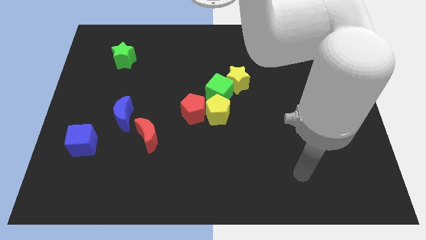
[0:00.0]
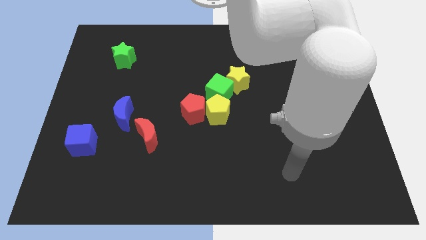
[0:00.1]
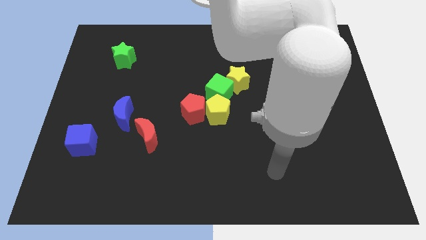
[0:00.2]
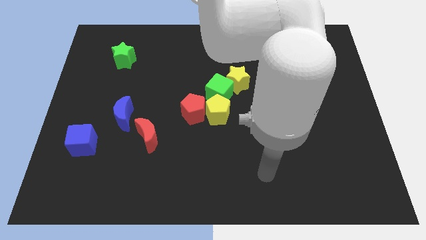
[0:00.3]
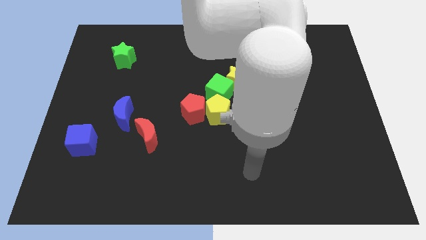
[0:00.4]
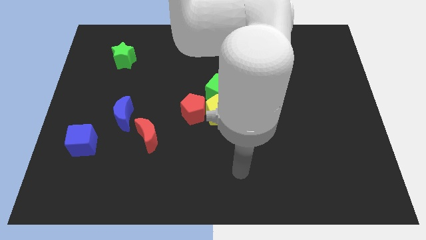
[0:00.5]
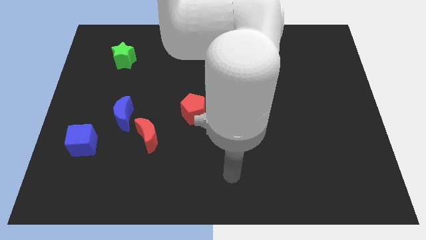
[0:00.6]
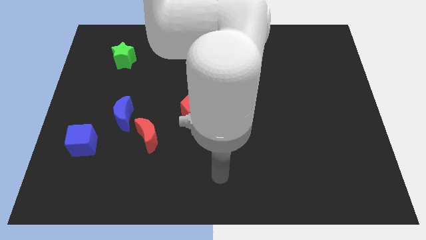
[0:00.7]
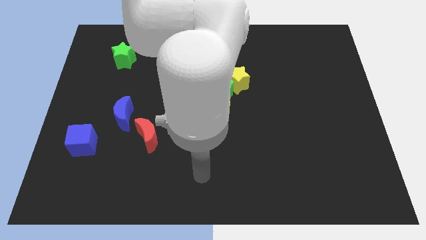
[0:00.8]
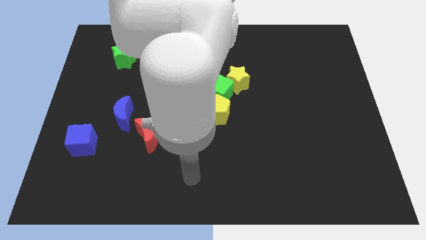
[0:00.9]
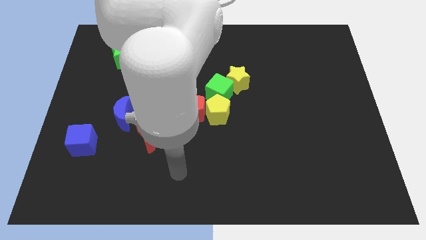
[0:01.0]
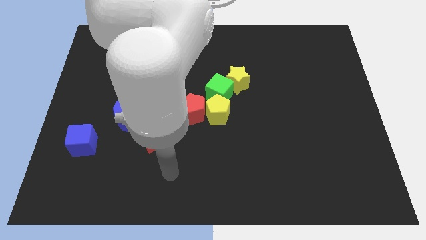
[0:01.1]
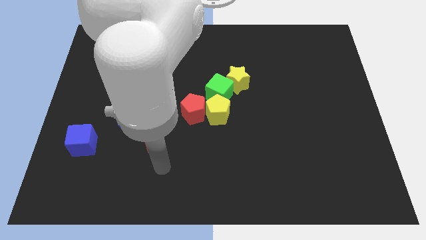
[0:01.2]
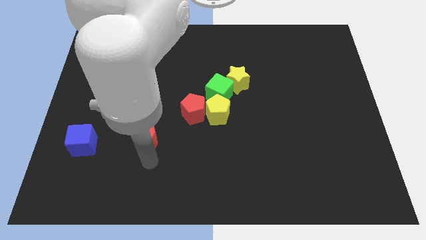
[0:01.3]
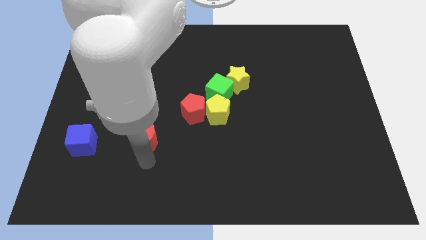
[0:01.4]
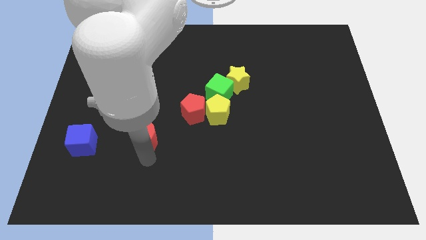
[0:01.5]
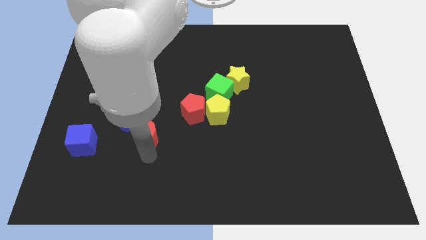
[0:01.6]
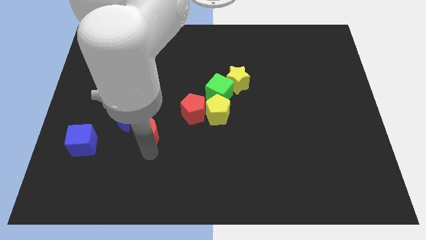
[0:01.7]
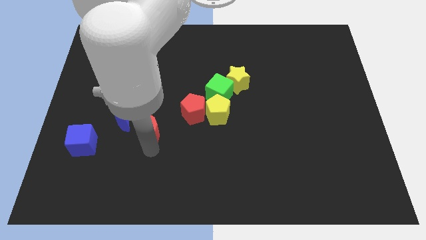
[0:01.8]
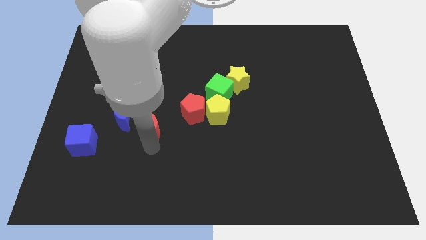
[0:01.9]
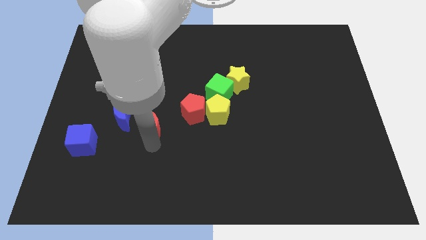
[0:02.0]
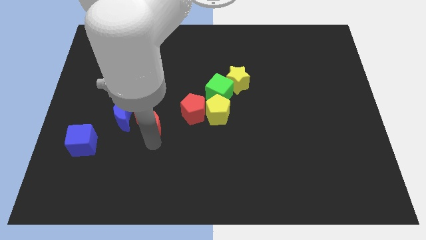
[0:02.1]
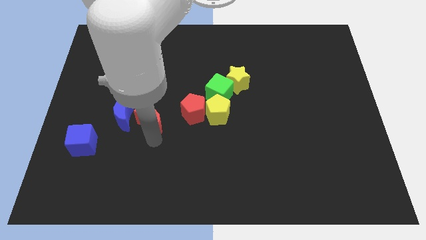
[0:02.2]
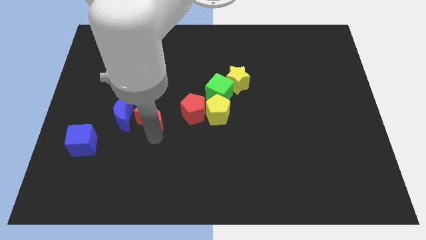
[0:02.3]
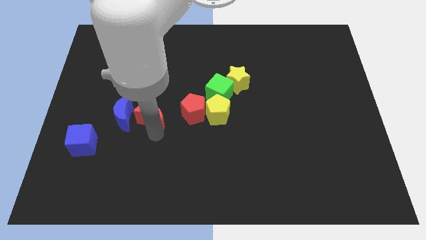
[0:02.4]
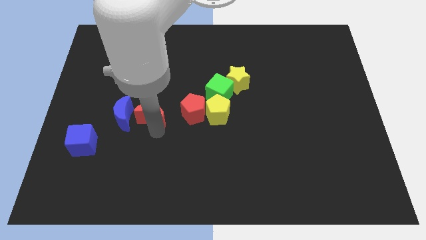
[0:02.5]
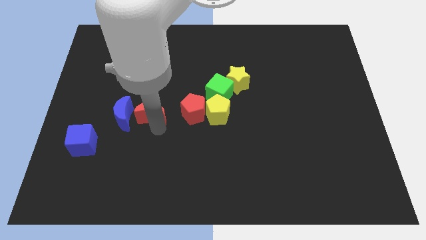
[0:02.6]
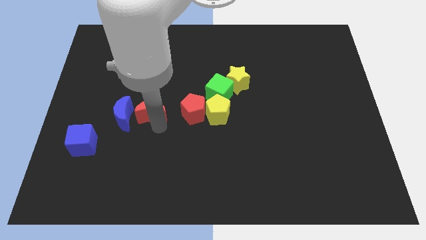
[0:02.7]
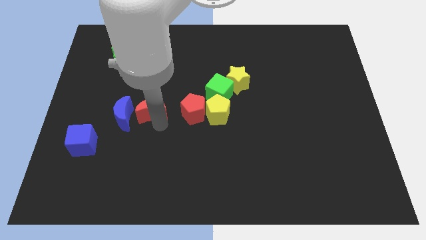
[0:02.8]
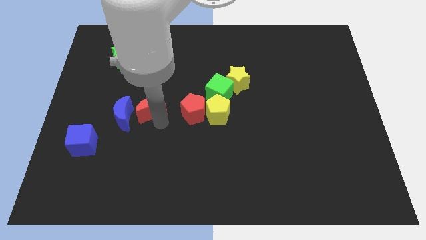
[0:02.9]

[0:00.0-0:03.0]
slightly slide the red moon up

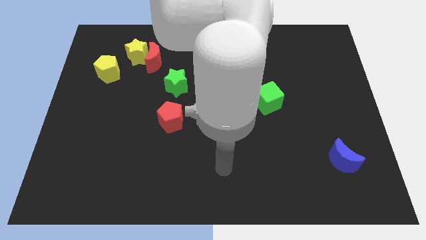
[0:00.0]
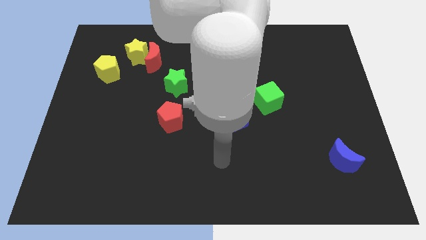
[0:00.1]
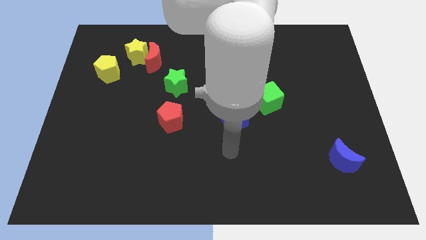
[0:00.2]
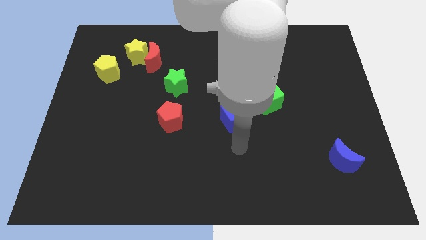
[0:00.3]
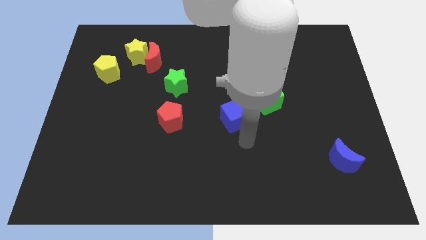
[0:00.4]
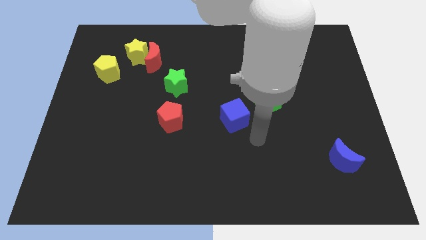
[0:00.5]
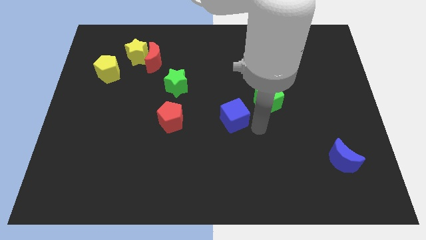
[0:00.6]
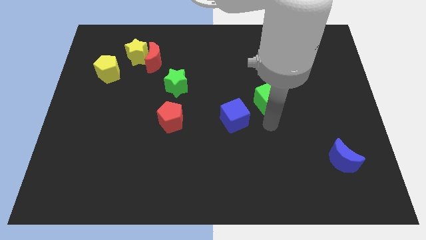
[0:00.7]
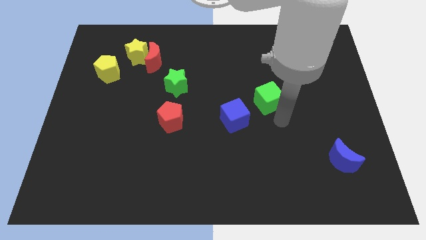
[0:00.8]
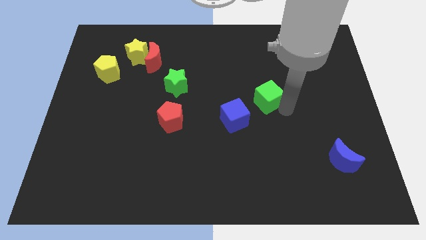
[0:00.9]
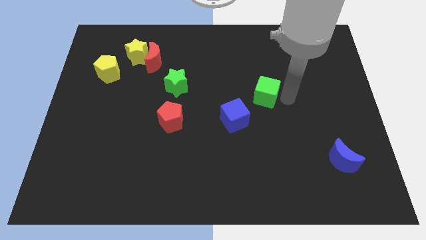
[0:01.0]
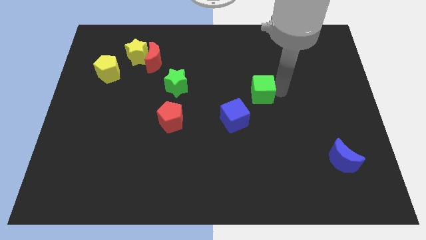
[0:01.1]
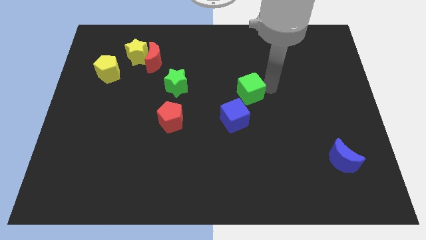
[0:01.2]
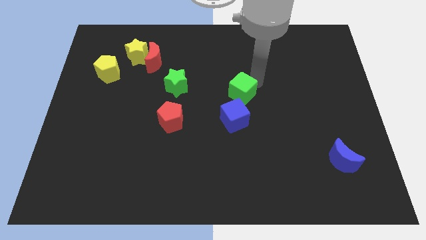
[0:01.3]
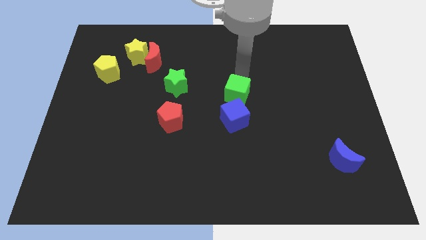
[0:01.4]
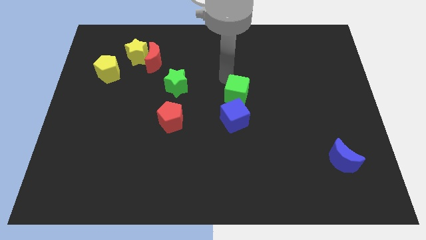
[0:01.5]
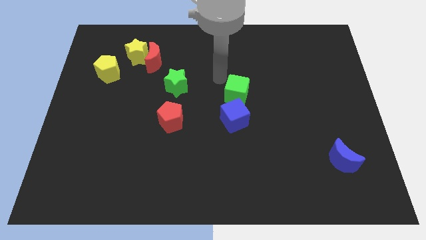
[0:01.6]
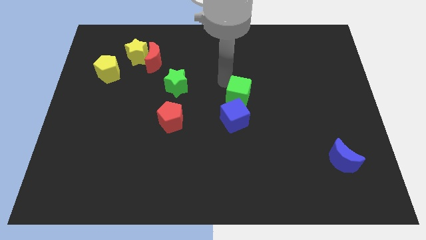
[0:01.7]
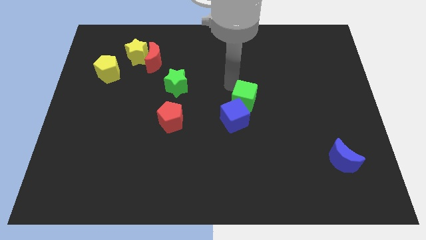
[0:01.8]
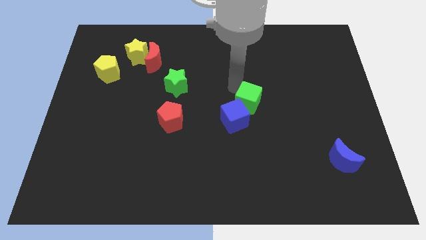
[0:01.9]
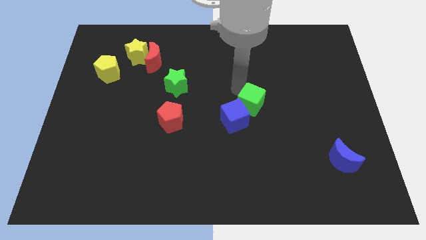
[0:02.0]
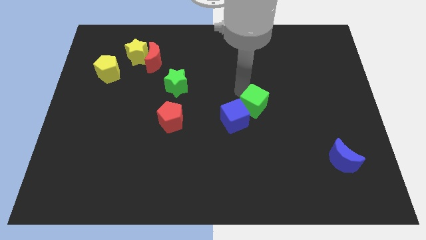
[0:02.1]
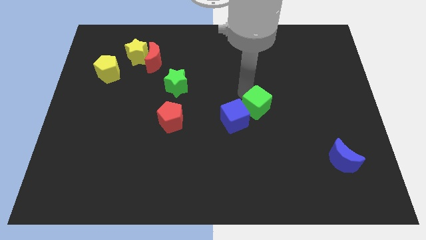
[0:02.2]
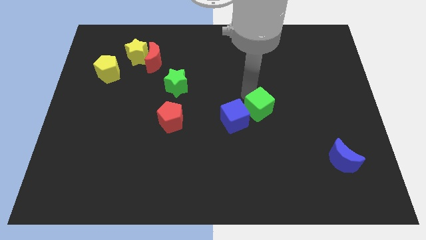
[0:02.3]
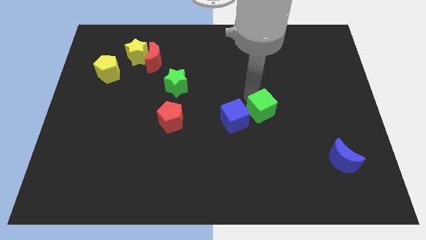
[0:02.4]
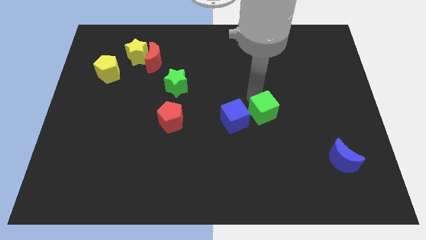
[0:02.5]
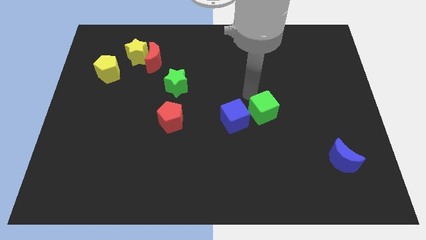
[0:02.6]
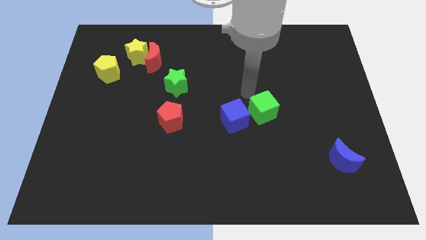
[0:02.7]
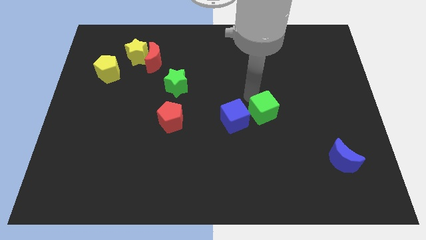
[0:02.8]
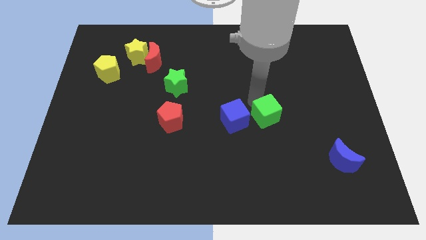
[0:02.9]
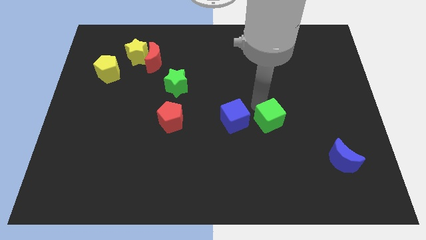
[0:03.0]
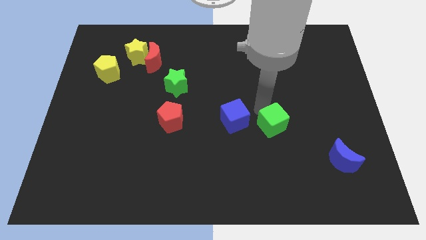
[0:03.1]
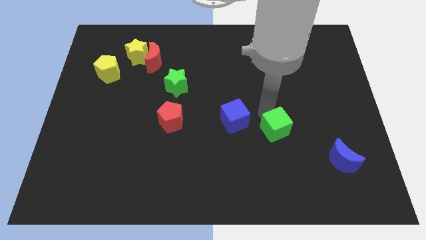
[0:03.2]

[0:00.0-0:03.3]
slightly push the green cube down

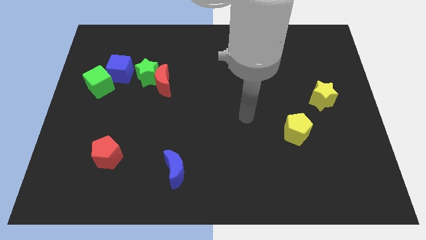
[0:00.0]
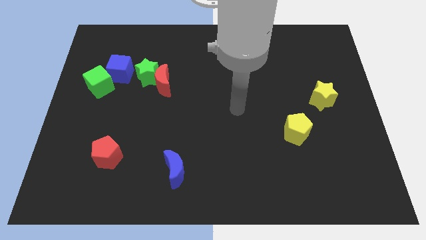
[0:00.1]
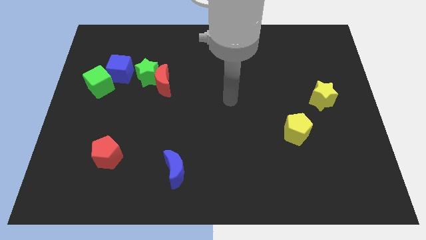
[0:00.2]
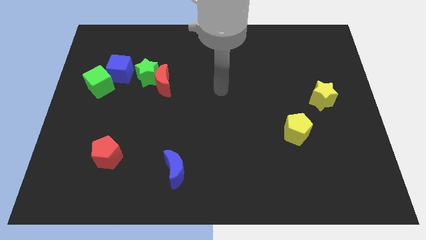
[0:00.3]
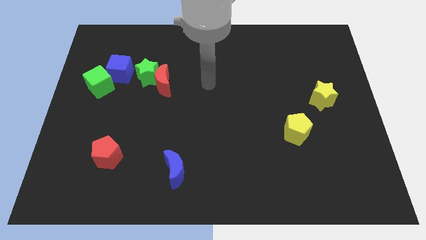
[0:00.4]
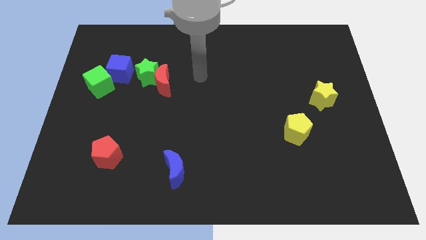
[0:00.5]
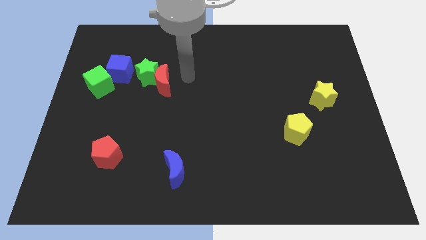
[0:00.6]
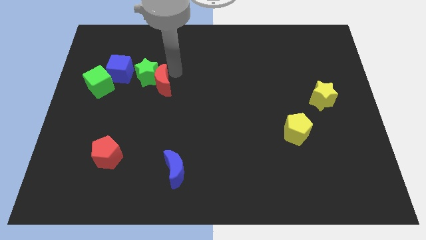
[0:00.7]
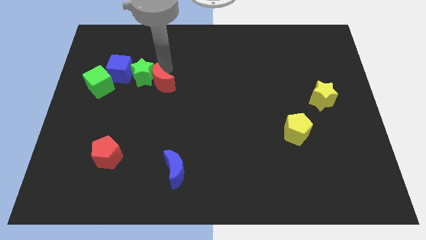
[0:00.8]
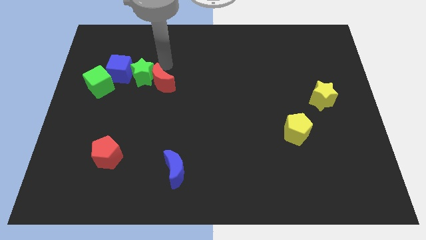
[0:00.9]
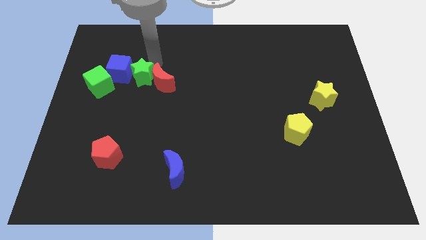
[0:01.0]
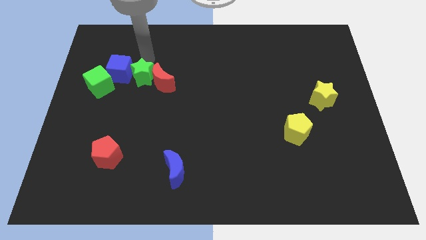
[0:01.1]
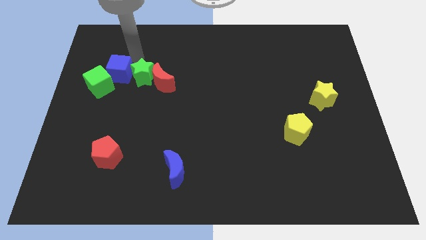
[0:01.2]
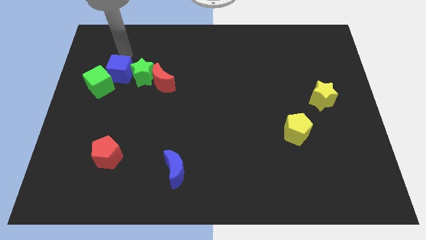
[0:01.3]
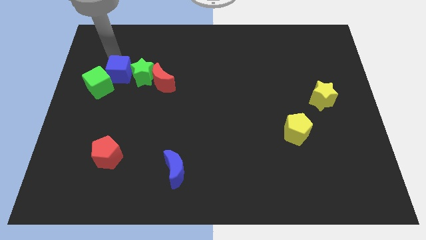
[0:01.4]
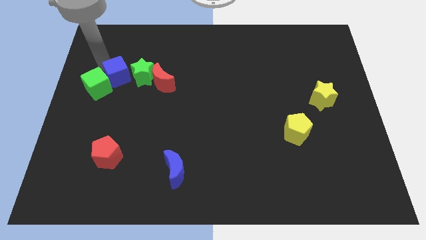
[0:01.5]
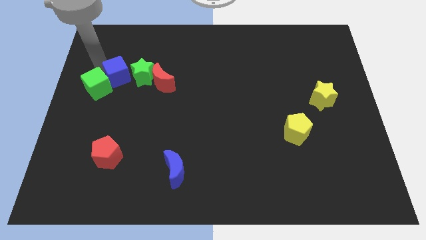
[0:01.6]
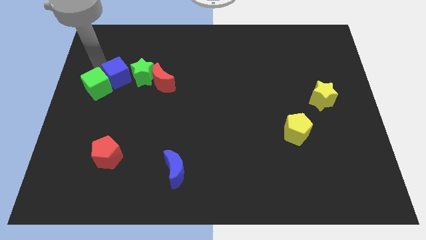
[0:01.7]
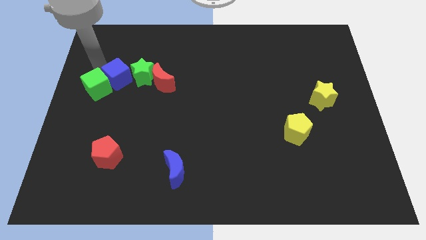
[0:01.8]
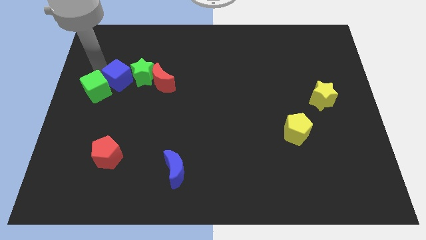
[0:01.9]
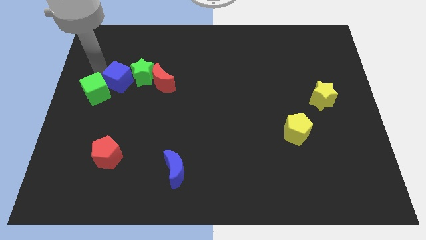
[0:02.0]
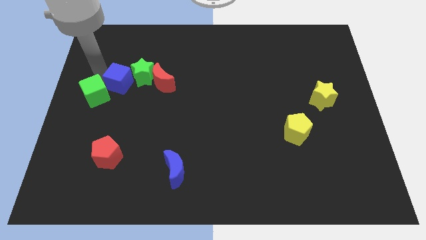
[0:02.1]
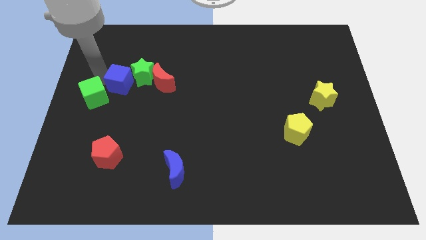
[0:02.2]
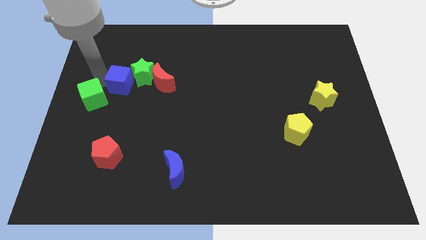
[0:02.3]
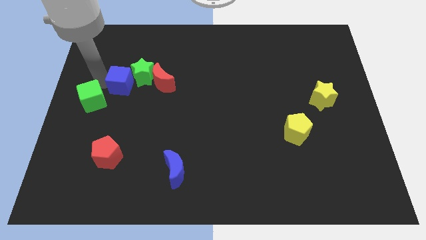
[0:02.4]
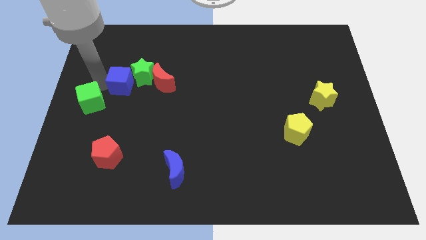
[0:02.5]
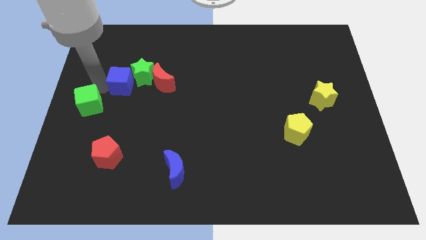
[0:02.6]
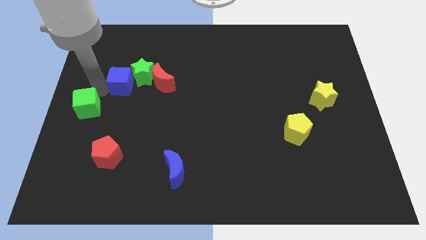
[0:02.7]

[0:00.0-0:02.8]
push the green cube a little bit down
